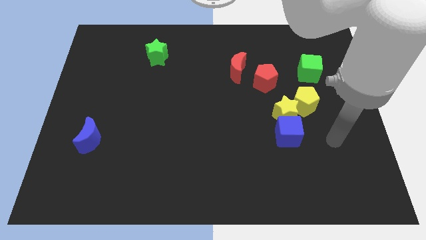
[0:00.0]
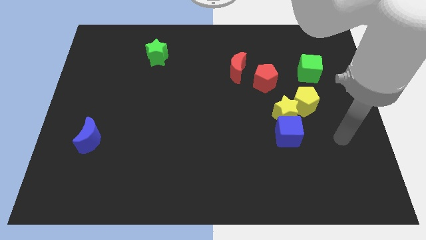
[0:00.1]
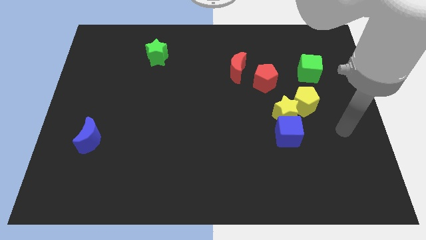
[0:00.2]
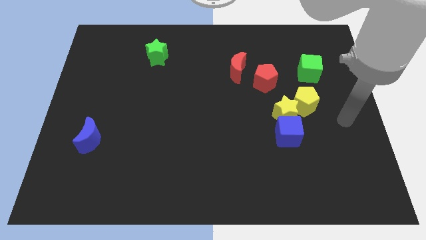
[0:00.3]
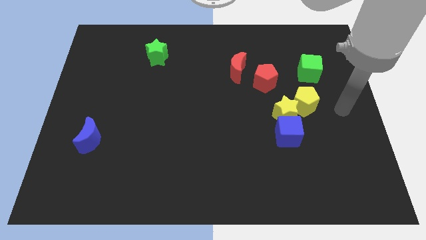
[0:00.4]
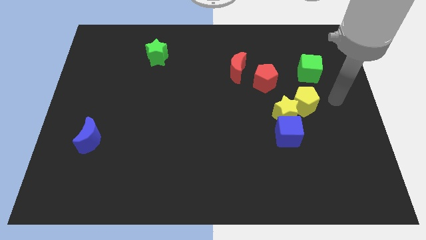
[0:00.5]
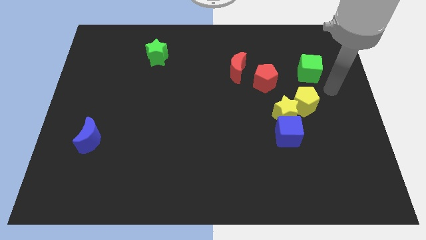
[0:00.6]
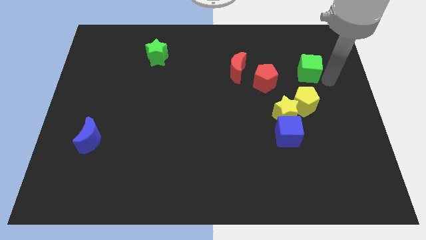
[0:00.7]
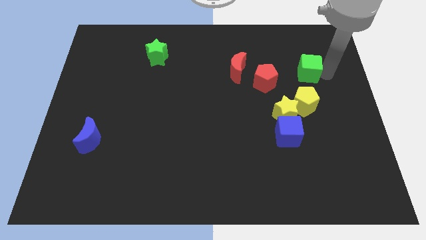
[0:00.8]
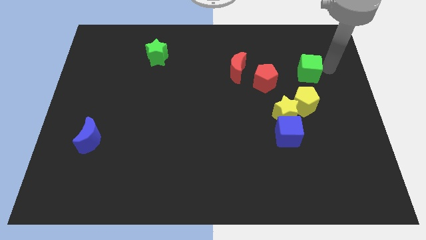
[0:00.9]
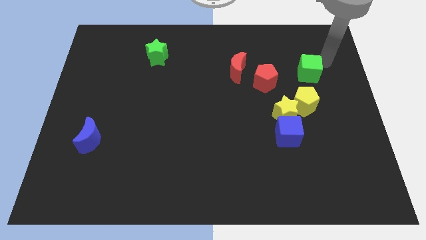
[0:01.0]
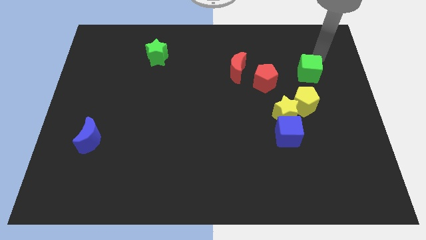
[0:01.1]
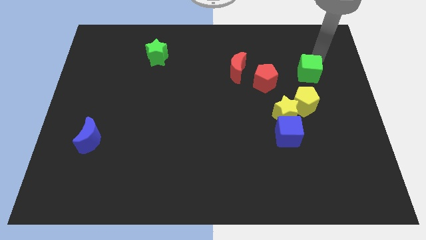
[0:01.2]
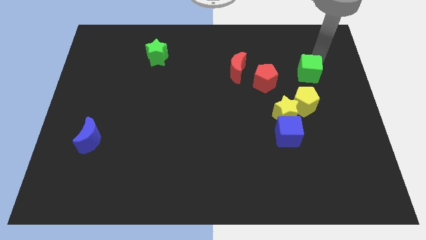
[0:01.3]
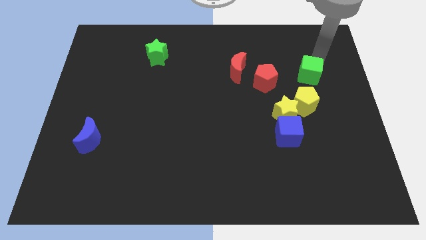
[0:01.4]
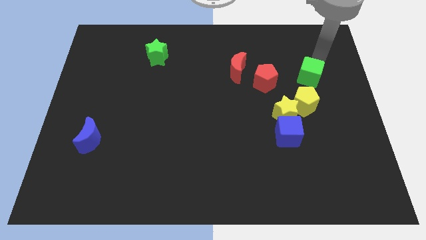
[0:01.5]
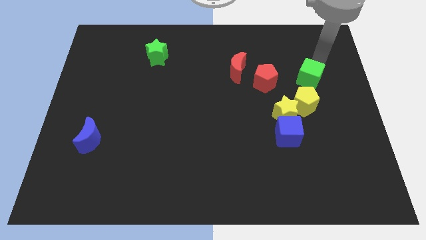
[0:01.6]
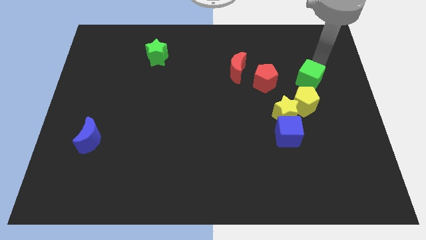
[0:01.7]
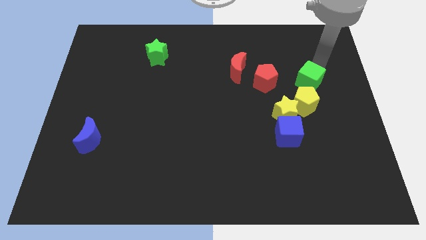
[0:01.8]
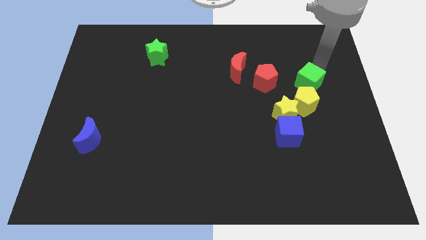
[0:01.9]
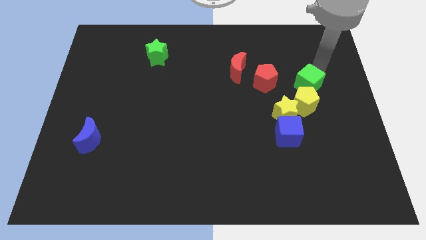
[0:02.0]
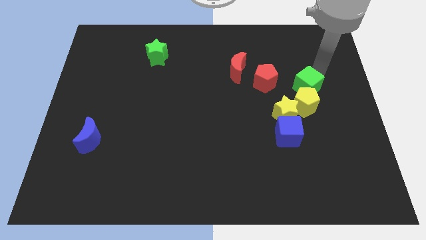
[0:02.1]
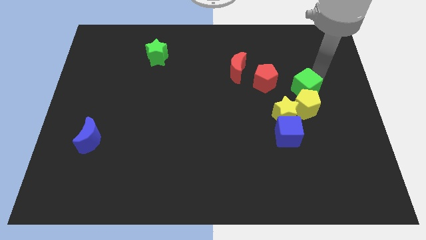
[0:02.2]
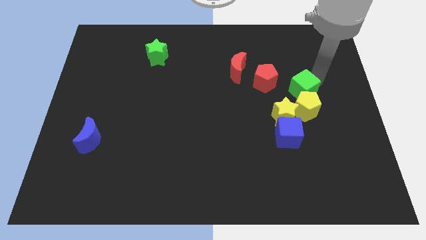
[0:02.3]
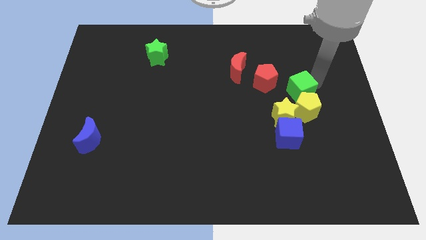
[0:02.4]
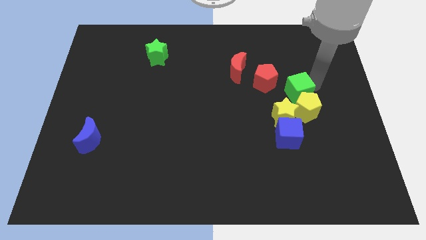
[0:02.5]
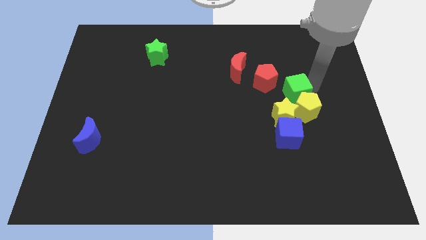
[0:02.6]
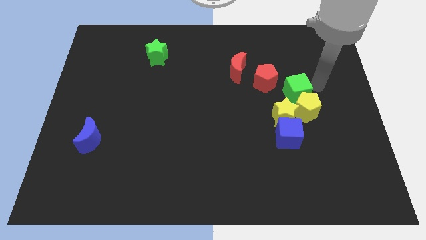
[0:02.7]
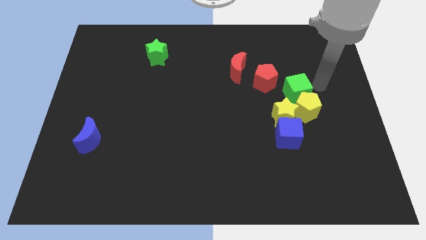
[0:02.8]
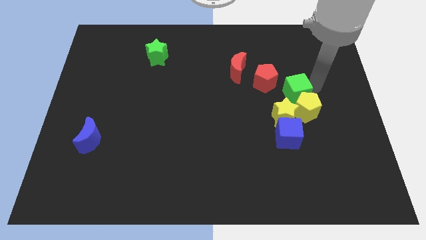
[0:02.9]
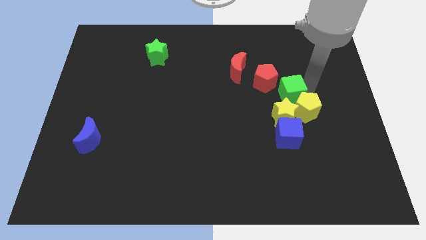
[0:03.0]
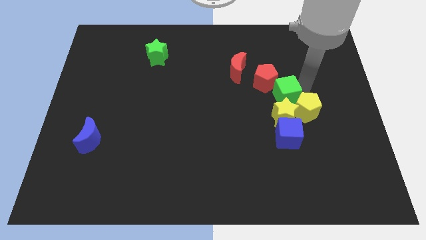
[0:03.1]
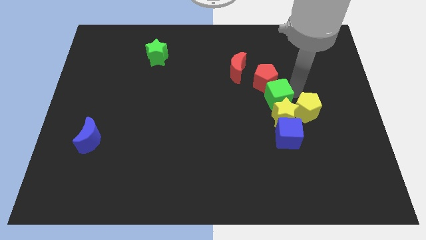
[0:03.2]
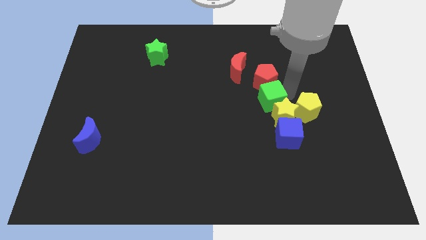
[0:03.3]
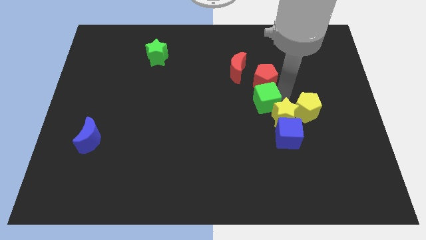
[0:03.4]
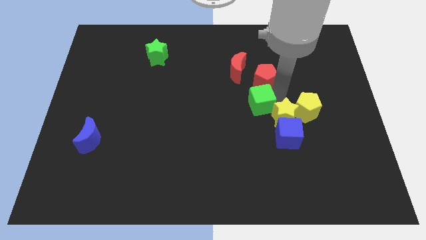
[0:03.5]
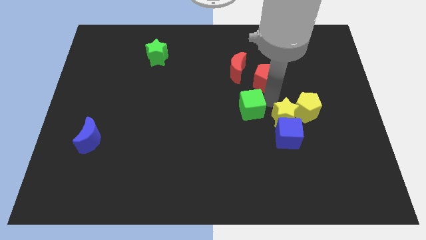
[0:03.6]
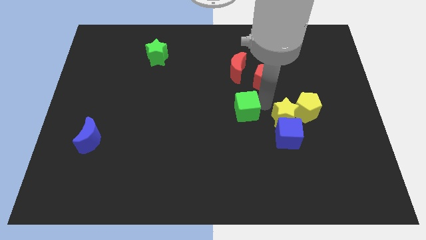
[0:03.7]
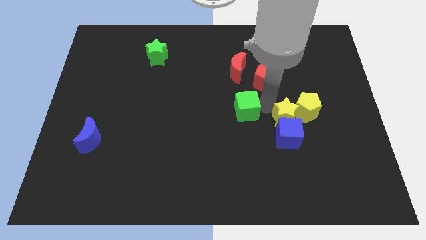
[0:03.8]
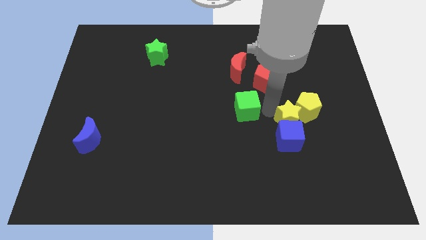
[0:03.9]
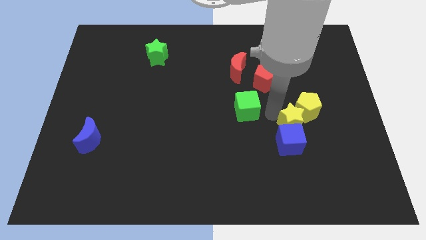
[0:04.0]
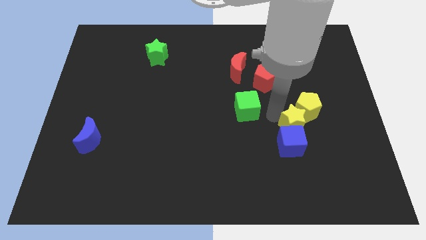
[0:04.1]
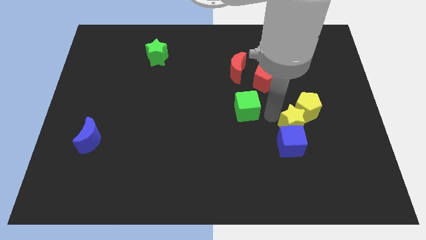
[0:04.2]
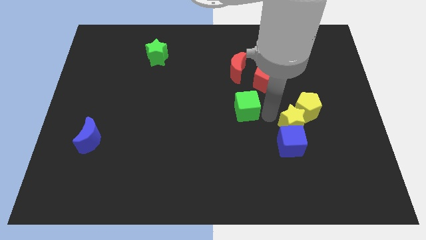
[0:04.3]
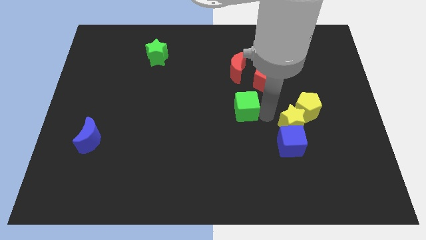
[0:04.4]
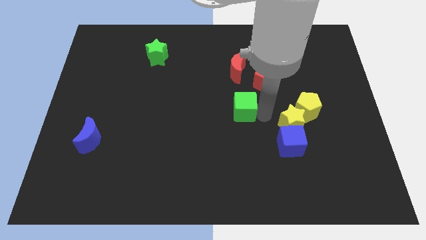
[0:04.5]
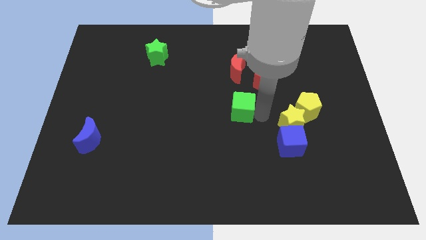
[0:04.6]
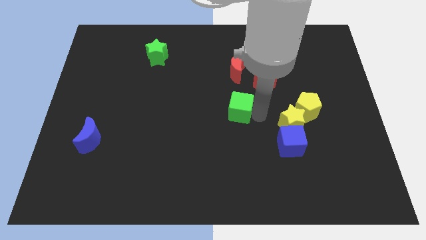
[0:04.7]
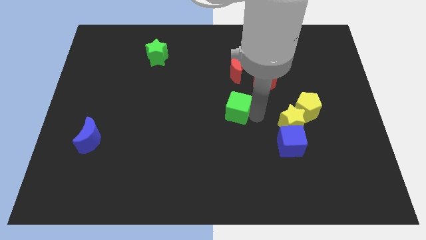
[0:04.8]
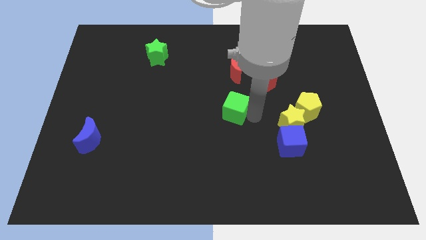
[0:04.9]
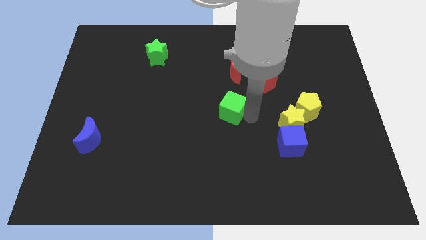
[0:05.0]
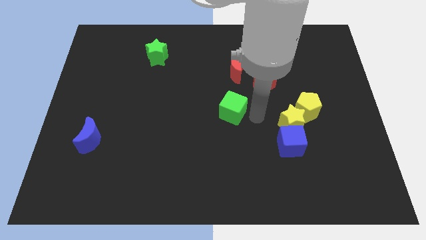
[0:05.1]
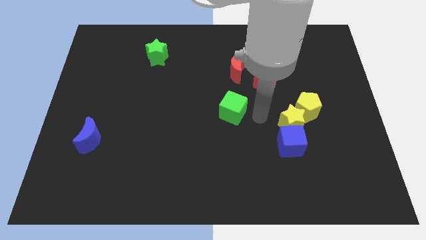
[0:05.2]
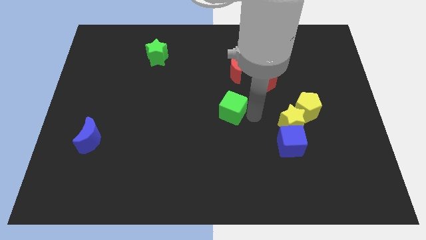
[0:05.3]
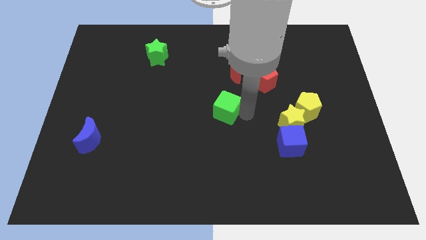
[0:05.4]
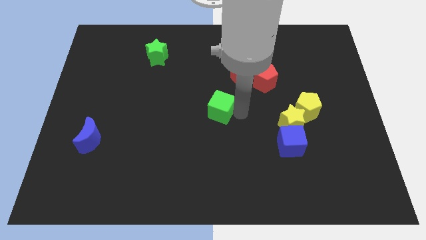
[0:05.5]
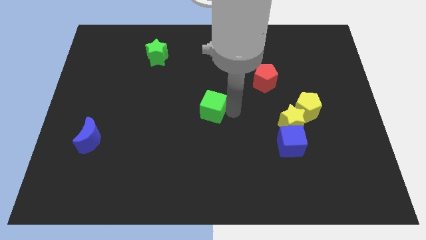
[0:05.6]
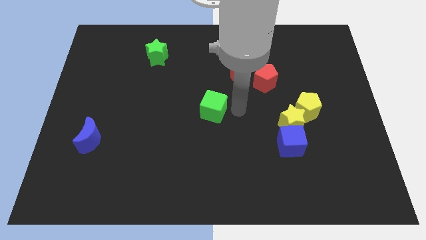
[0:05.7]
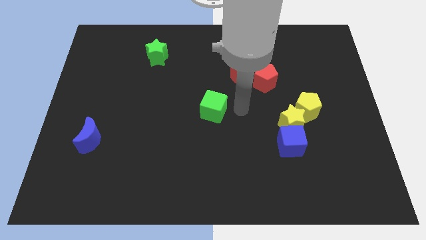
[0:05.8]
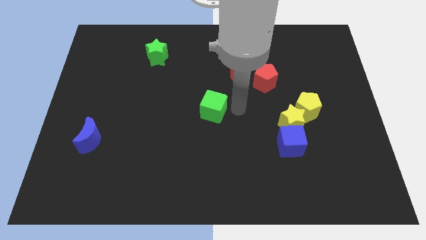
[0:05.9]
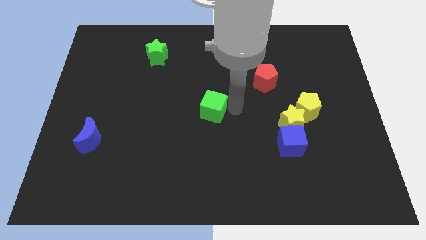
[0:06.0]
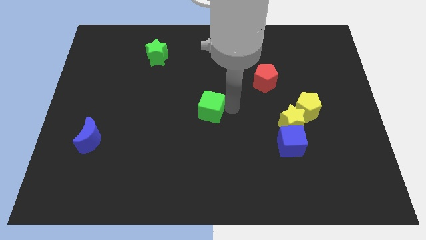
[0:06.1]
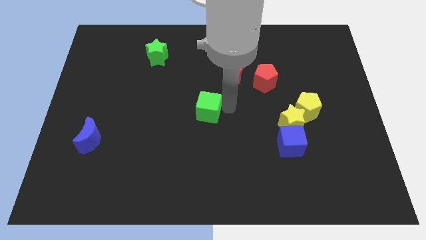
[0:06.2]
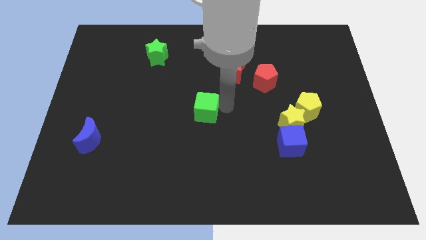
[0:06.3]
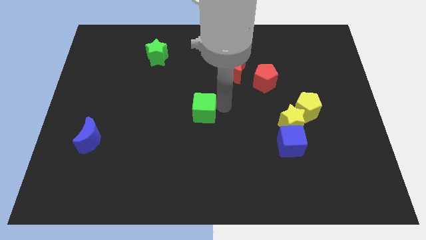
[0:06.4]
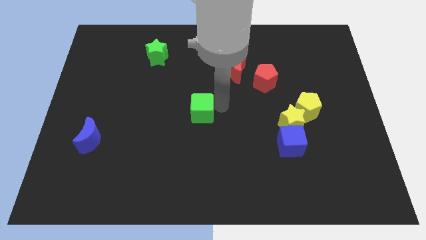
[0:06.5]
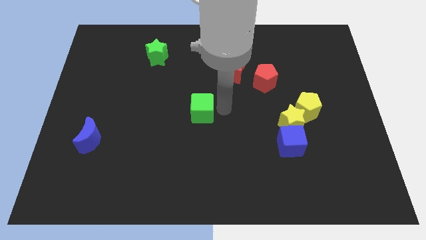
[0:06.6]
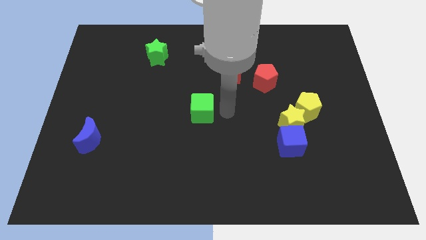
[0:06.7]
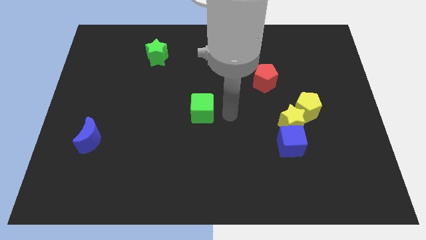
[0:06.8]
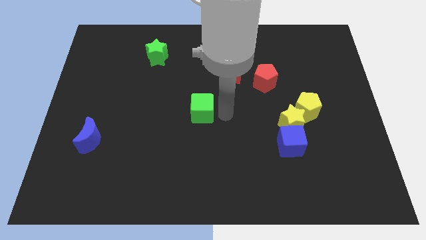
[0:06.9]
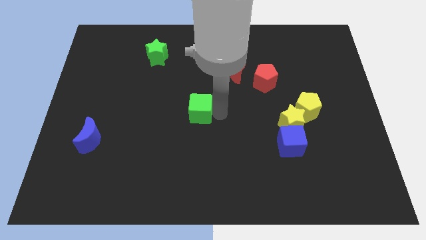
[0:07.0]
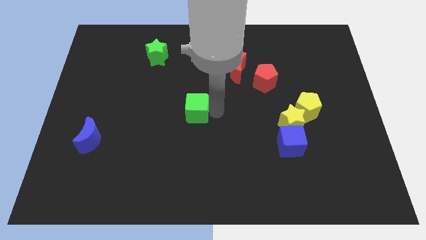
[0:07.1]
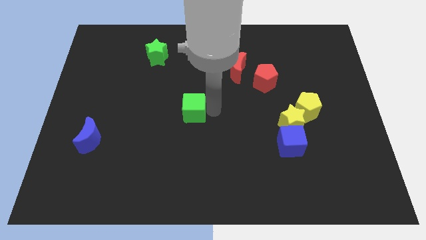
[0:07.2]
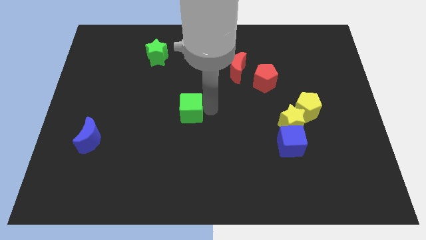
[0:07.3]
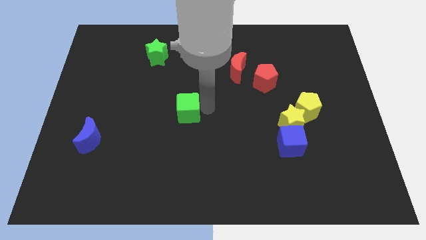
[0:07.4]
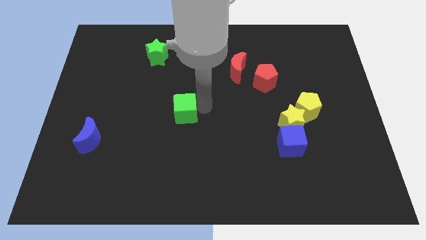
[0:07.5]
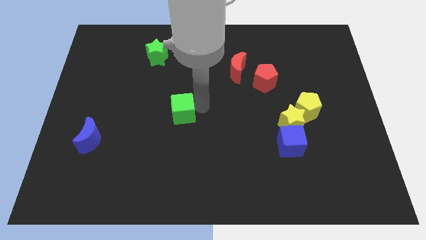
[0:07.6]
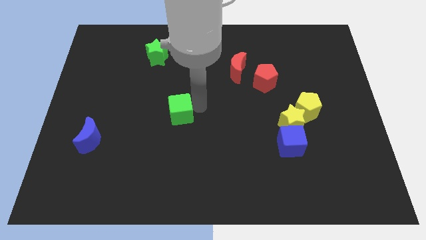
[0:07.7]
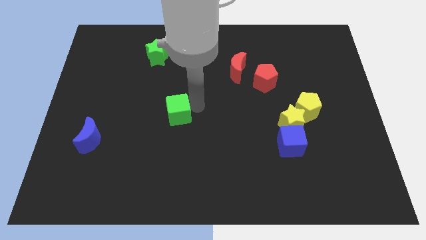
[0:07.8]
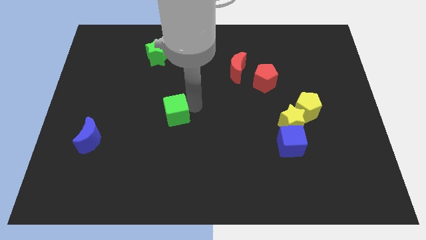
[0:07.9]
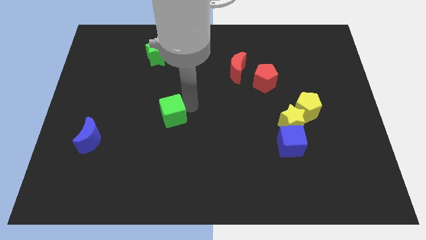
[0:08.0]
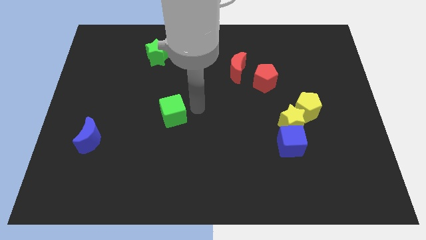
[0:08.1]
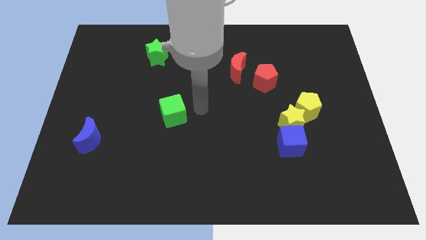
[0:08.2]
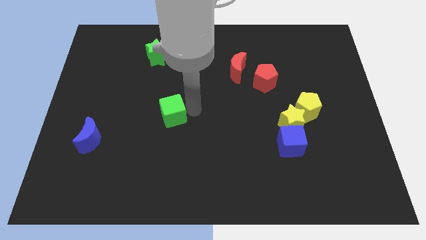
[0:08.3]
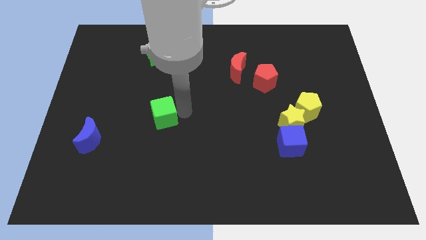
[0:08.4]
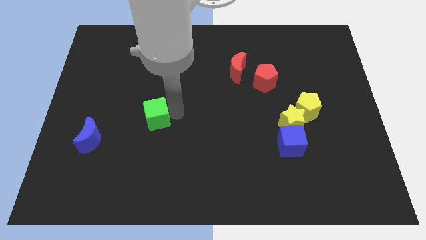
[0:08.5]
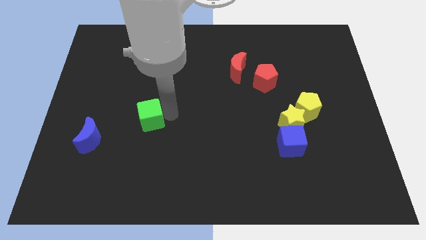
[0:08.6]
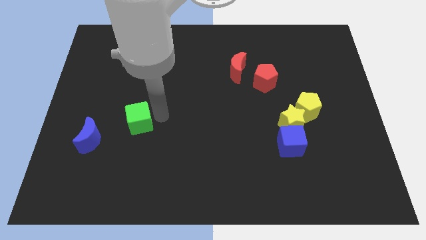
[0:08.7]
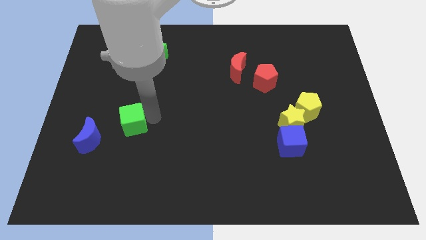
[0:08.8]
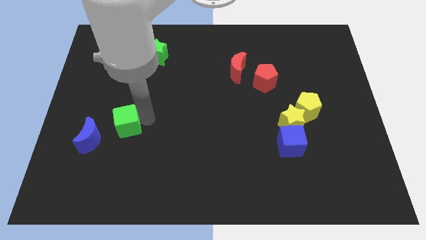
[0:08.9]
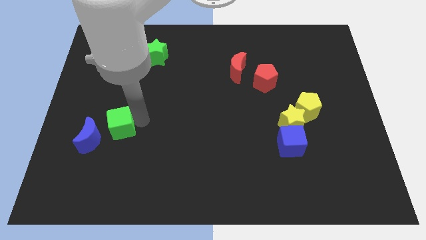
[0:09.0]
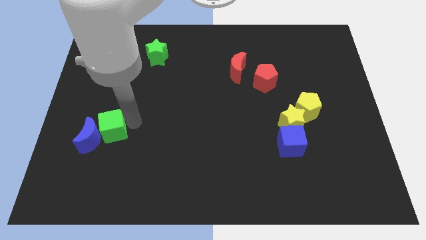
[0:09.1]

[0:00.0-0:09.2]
slide the green cube next to the blue moon
